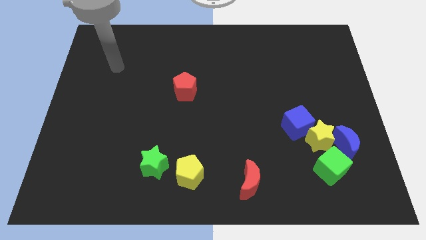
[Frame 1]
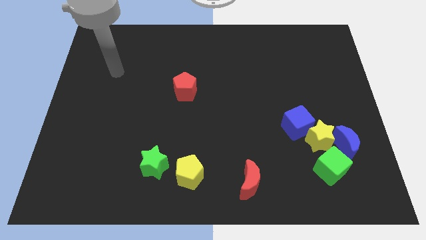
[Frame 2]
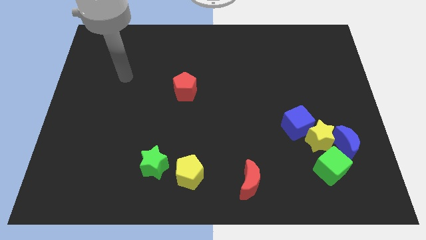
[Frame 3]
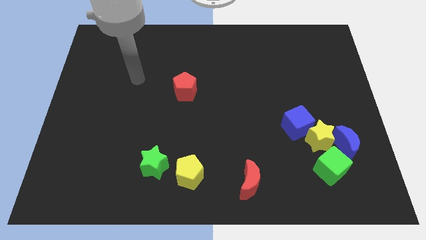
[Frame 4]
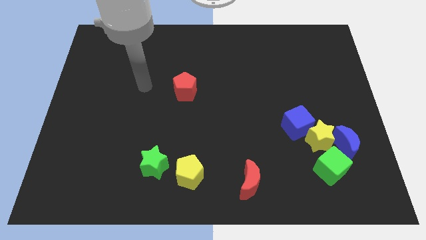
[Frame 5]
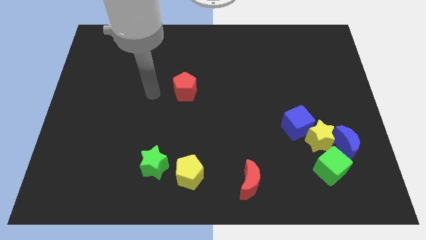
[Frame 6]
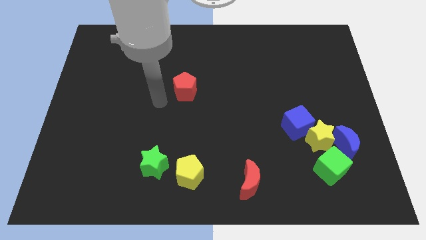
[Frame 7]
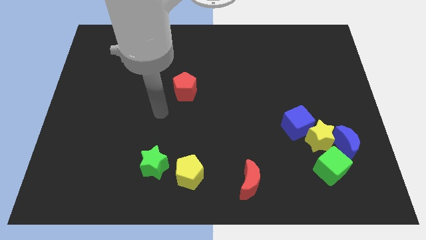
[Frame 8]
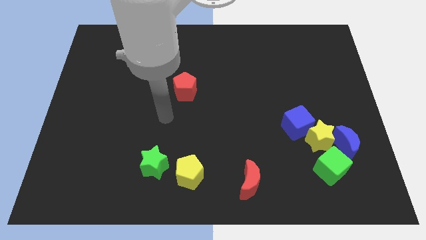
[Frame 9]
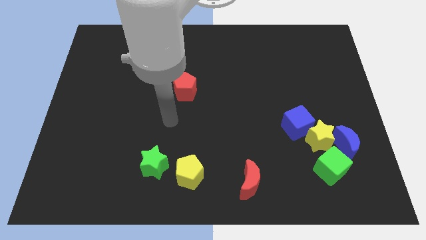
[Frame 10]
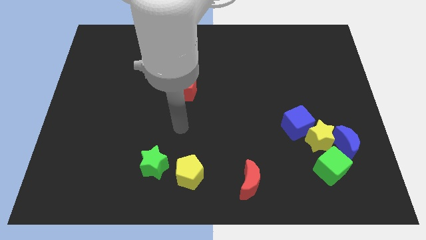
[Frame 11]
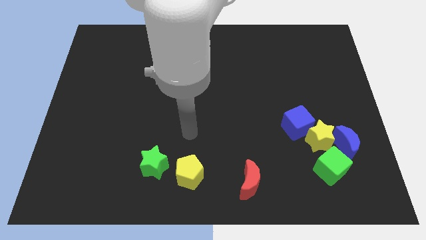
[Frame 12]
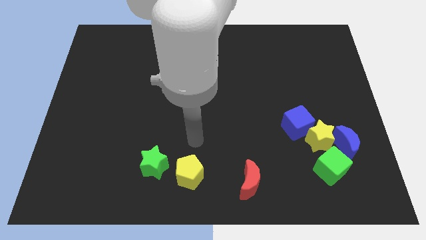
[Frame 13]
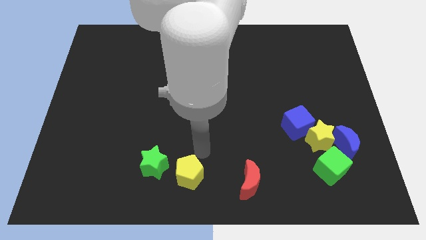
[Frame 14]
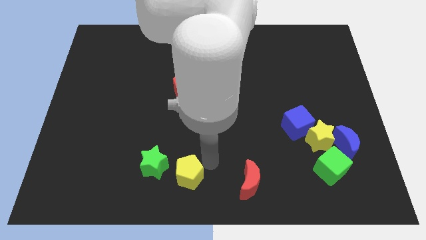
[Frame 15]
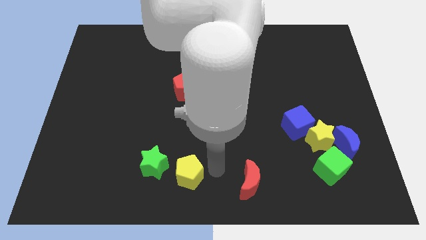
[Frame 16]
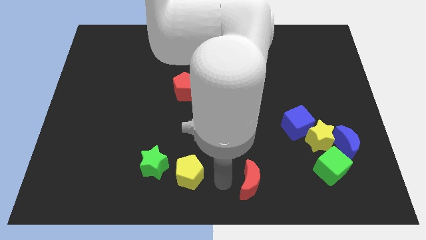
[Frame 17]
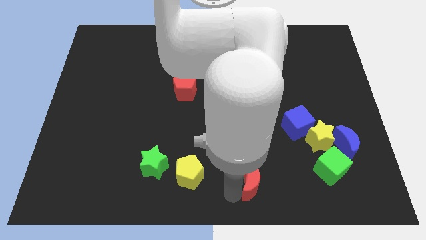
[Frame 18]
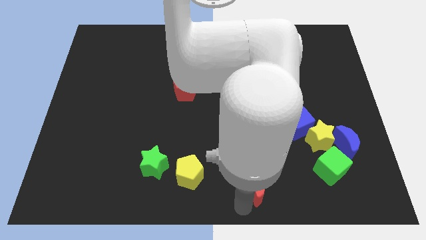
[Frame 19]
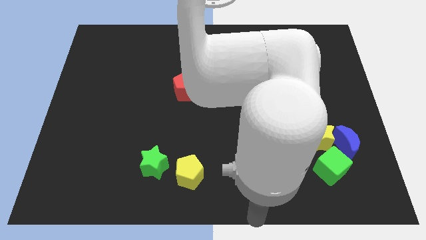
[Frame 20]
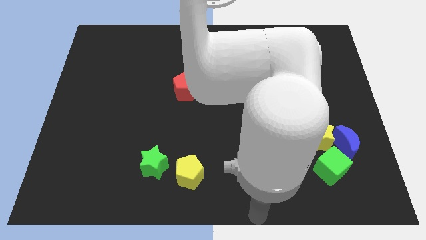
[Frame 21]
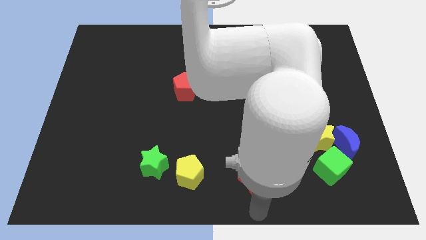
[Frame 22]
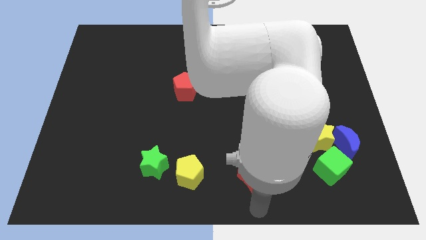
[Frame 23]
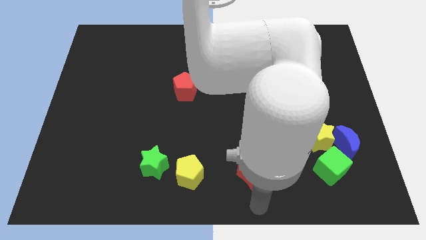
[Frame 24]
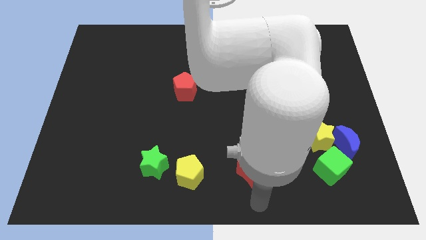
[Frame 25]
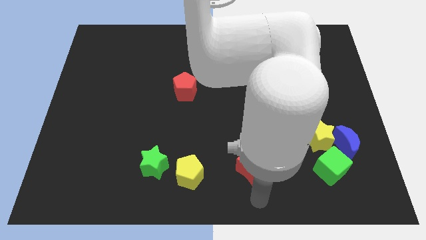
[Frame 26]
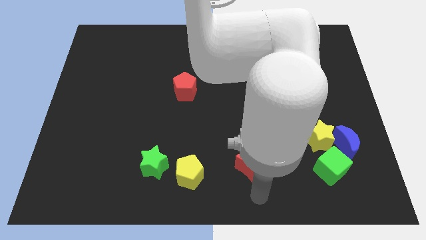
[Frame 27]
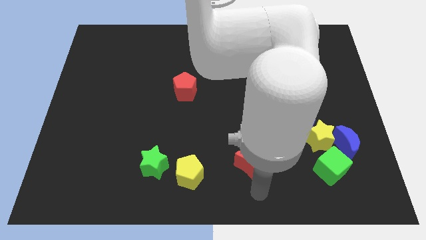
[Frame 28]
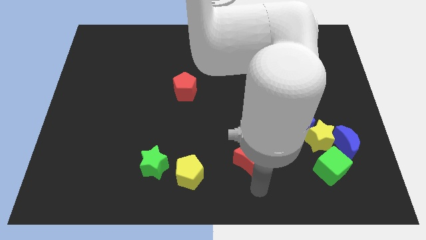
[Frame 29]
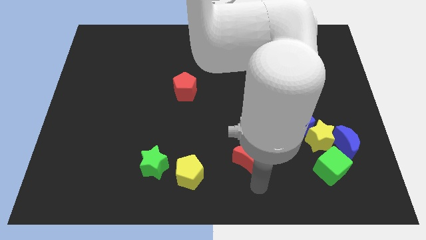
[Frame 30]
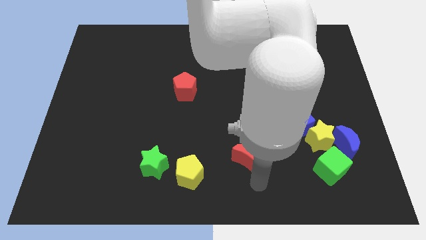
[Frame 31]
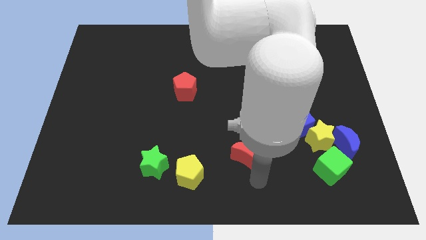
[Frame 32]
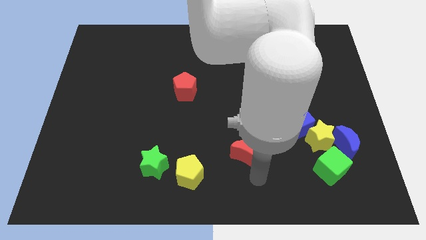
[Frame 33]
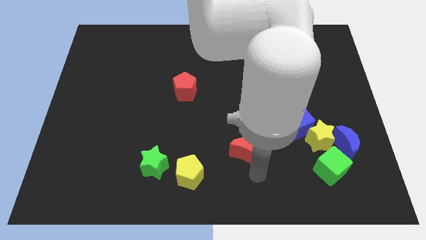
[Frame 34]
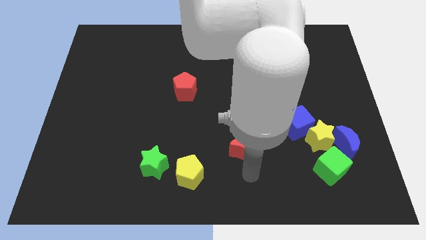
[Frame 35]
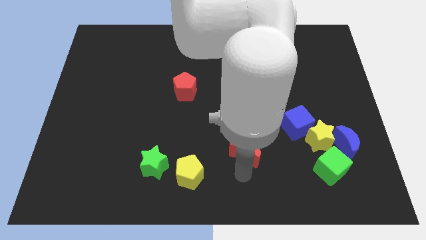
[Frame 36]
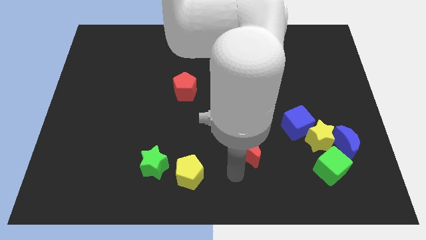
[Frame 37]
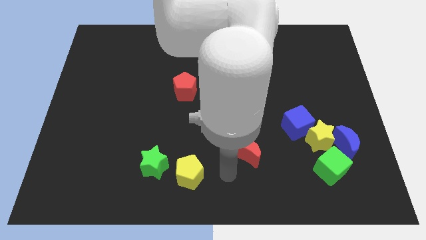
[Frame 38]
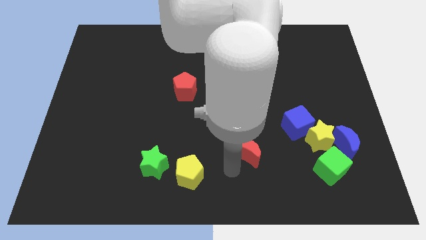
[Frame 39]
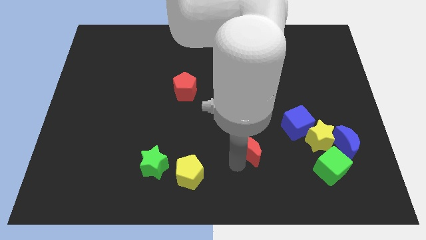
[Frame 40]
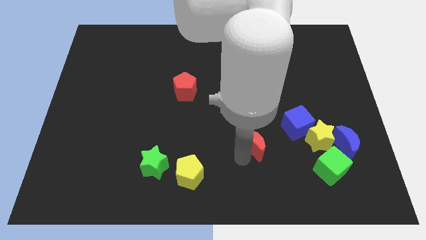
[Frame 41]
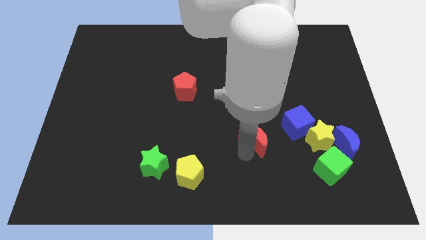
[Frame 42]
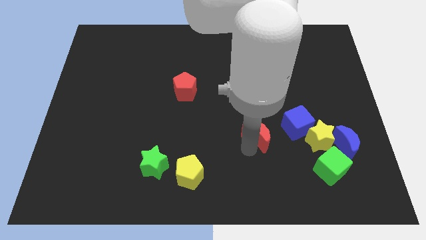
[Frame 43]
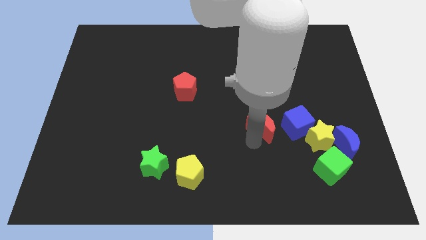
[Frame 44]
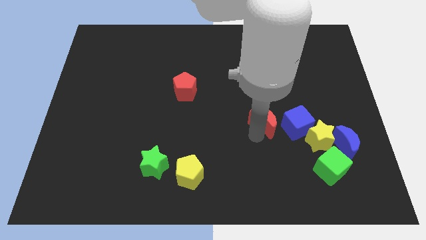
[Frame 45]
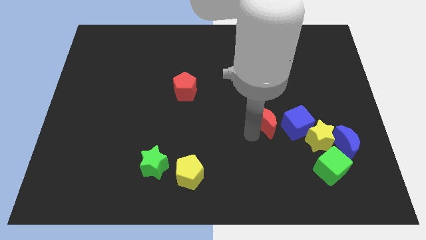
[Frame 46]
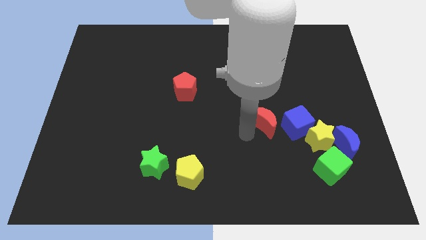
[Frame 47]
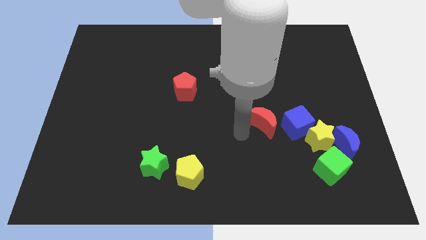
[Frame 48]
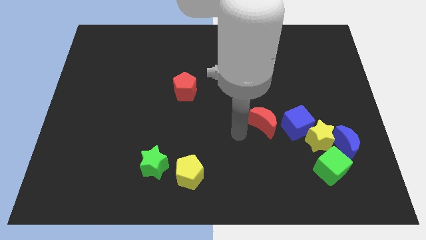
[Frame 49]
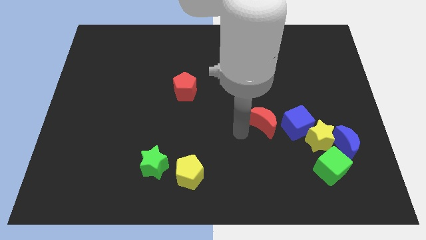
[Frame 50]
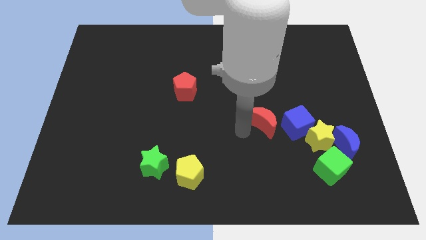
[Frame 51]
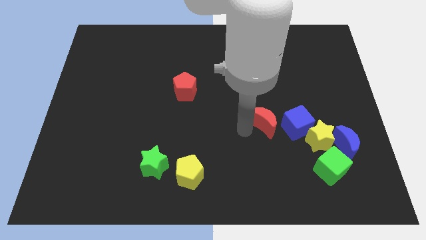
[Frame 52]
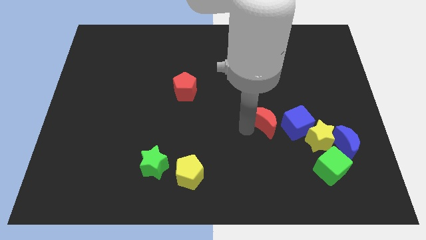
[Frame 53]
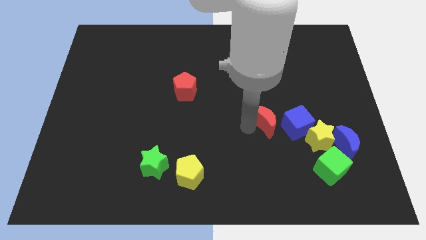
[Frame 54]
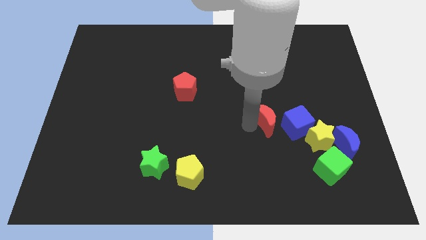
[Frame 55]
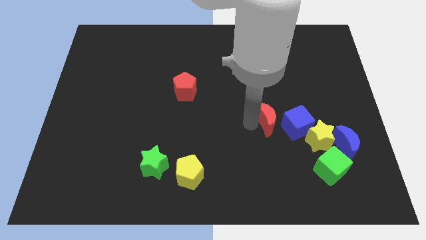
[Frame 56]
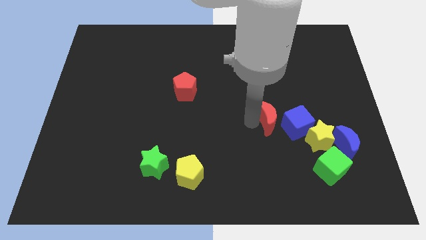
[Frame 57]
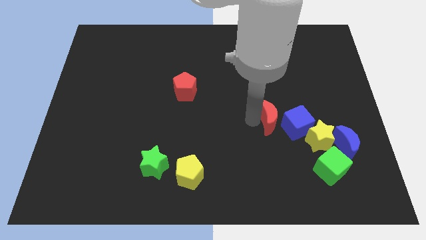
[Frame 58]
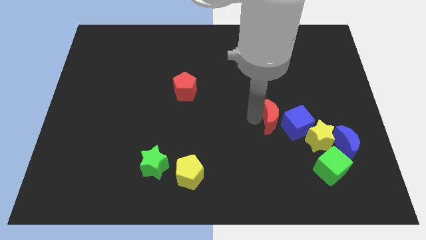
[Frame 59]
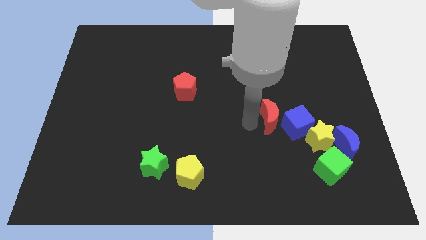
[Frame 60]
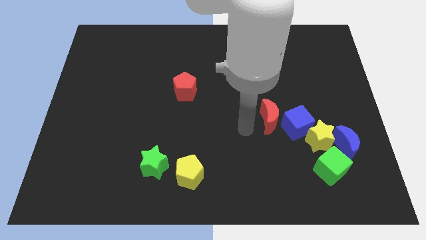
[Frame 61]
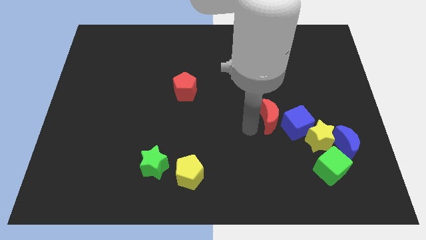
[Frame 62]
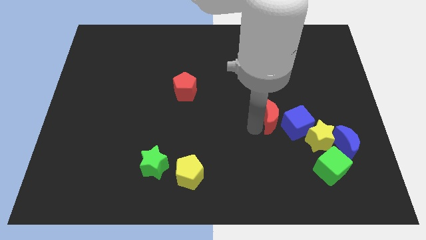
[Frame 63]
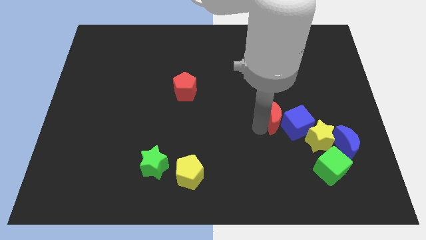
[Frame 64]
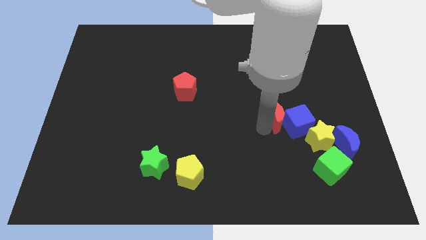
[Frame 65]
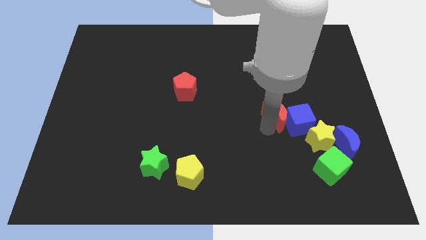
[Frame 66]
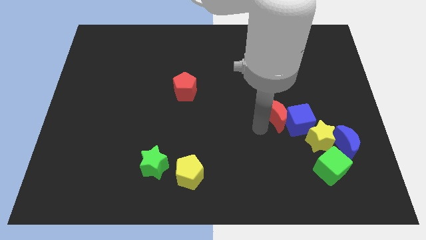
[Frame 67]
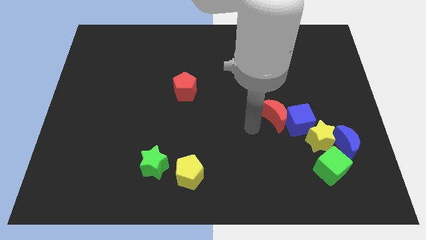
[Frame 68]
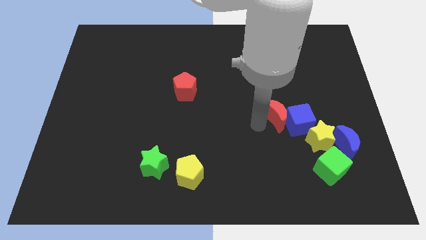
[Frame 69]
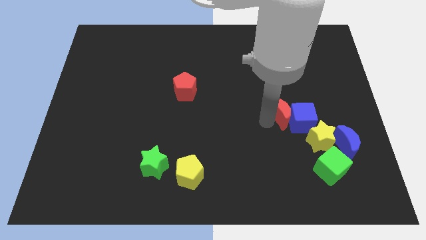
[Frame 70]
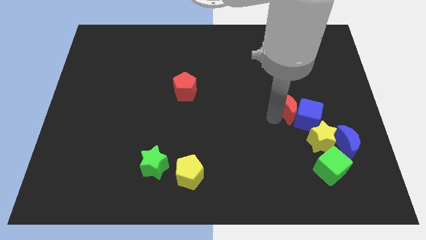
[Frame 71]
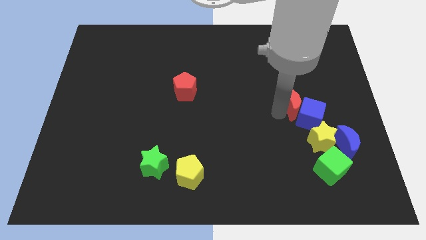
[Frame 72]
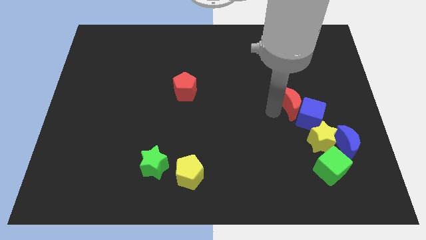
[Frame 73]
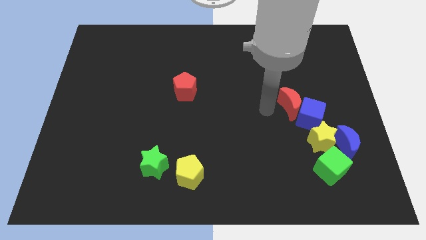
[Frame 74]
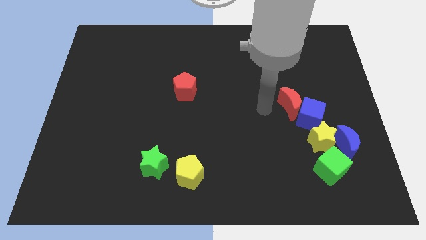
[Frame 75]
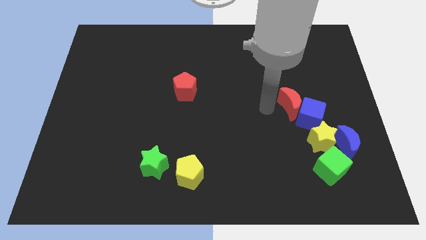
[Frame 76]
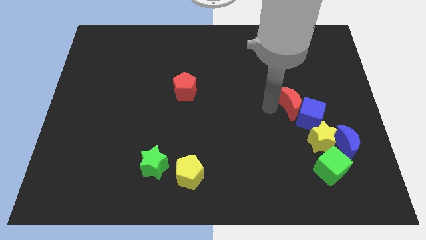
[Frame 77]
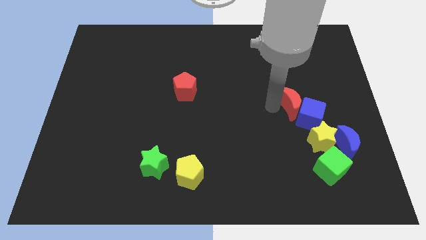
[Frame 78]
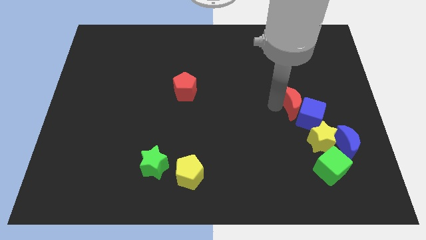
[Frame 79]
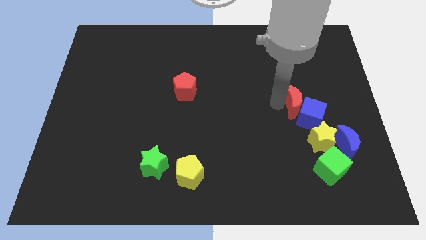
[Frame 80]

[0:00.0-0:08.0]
move the red moon above the yellow star
